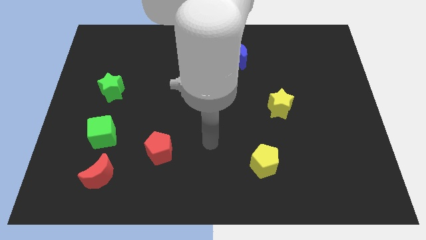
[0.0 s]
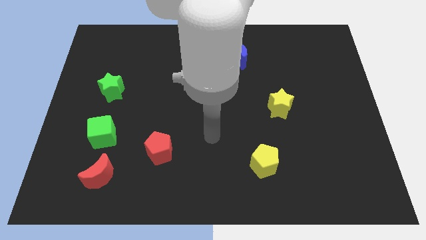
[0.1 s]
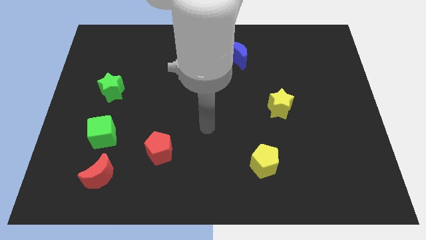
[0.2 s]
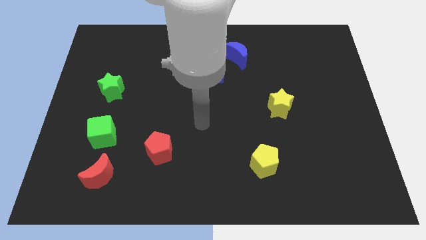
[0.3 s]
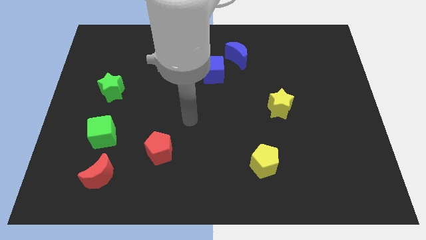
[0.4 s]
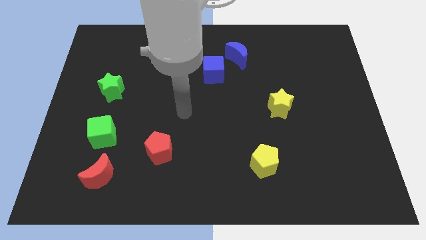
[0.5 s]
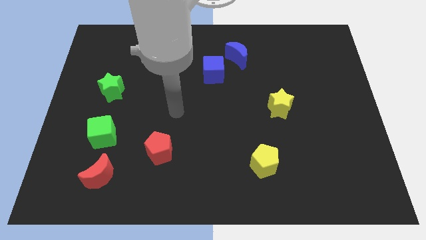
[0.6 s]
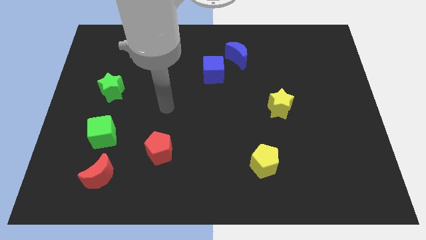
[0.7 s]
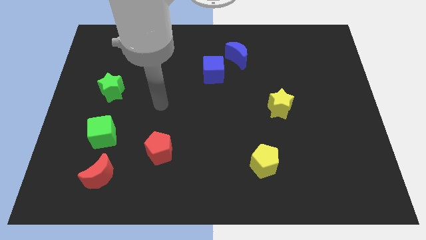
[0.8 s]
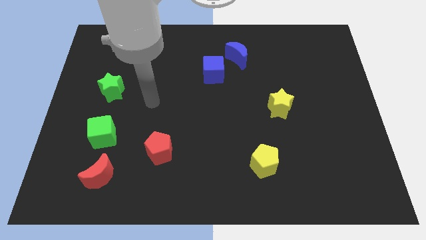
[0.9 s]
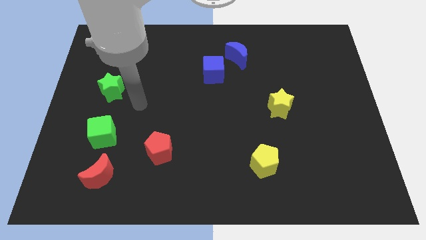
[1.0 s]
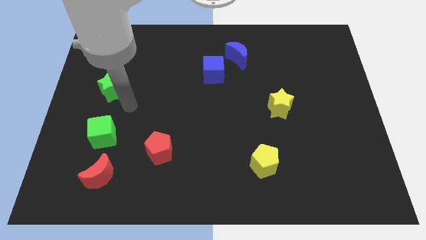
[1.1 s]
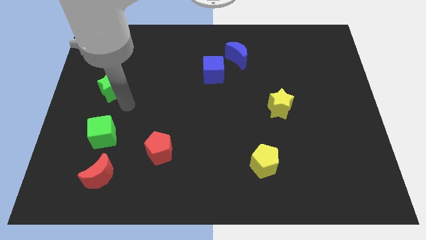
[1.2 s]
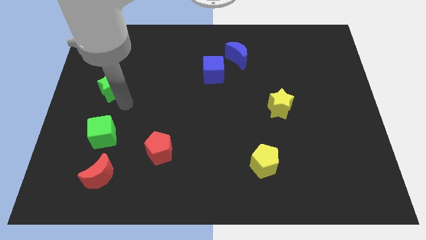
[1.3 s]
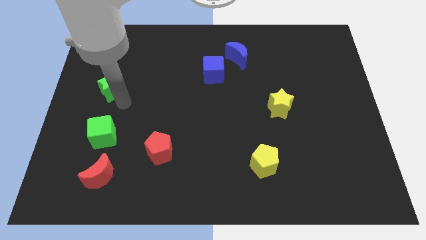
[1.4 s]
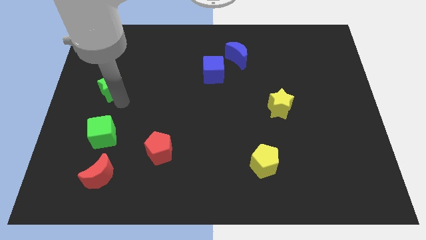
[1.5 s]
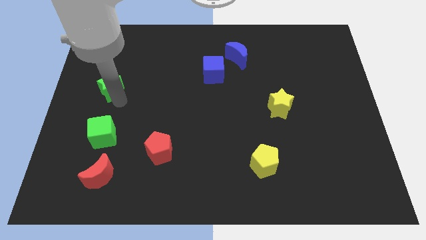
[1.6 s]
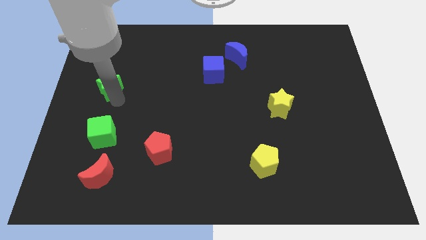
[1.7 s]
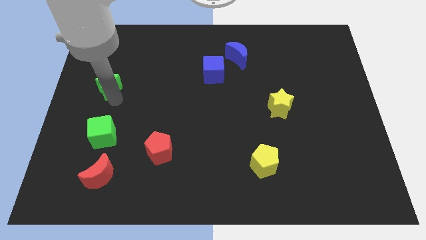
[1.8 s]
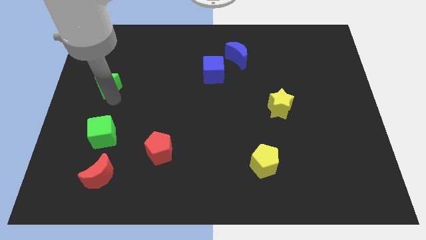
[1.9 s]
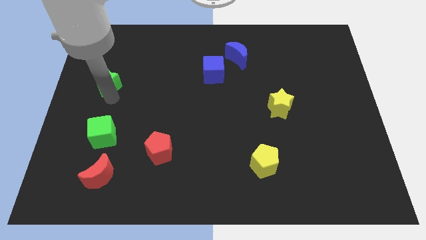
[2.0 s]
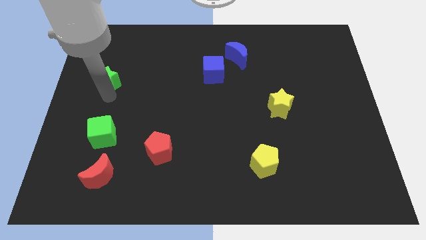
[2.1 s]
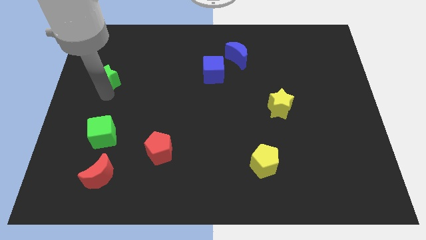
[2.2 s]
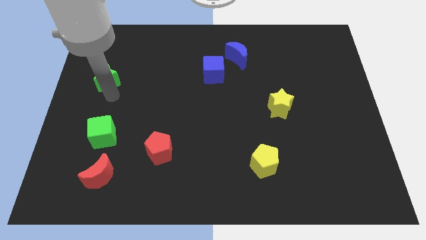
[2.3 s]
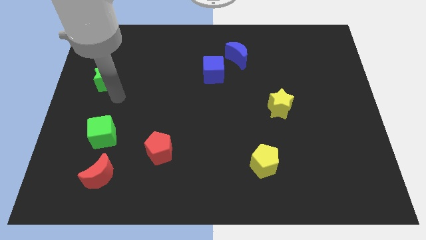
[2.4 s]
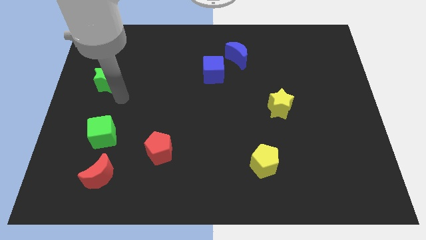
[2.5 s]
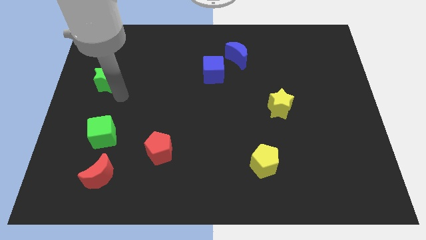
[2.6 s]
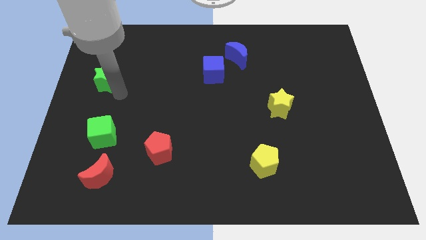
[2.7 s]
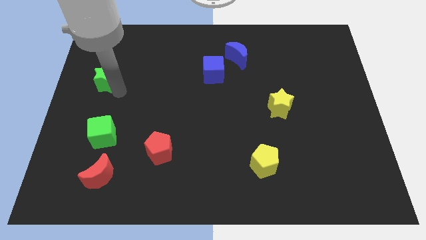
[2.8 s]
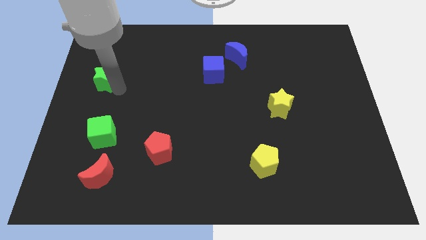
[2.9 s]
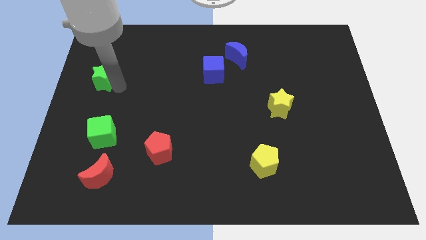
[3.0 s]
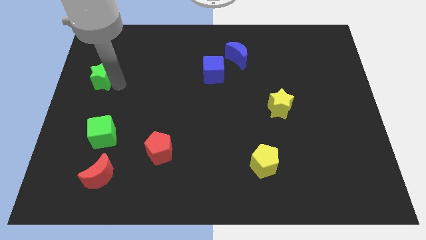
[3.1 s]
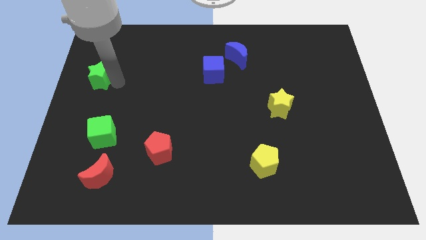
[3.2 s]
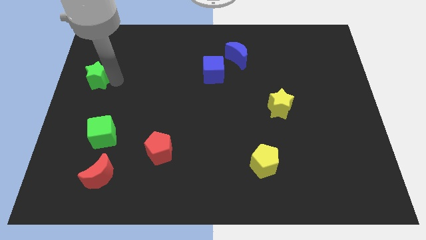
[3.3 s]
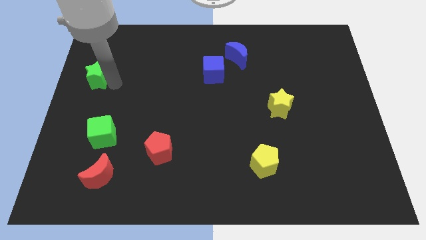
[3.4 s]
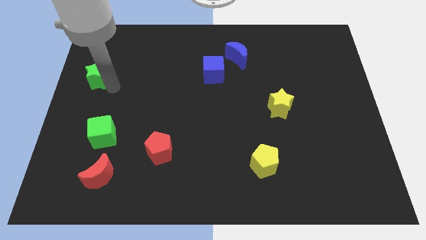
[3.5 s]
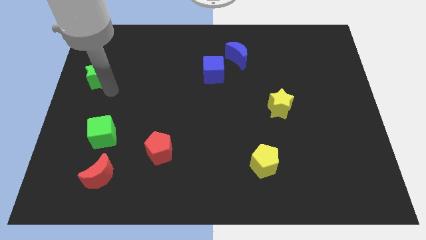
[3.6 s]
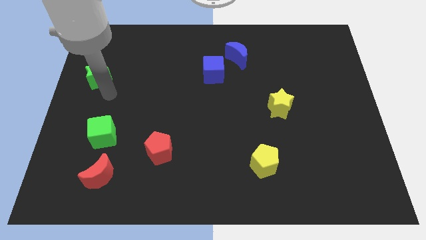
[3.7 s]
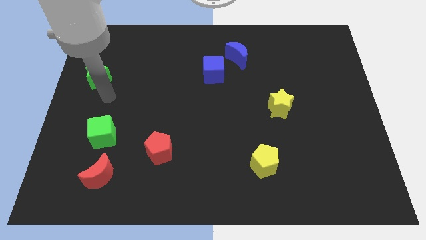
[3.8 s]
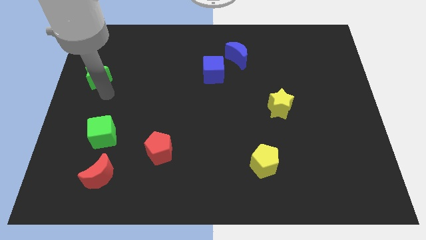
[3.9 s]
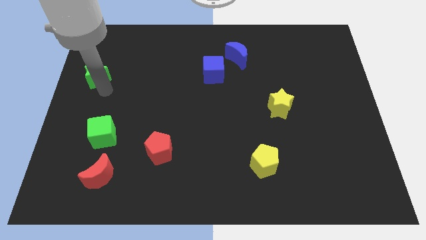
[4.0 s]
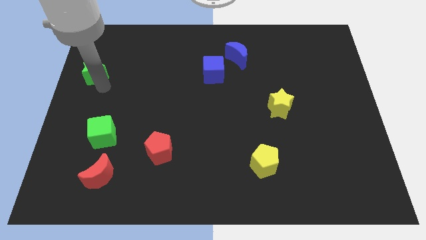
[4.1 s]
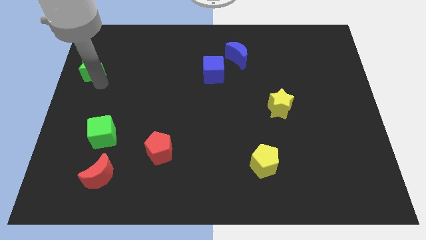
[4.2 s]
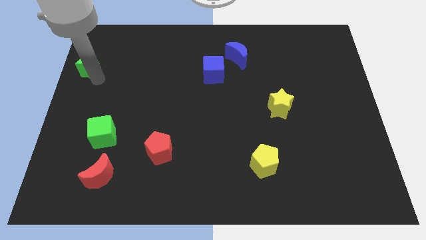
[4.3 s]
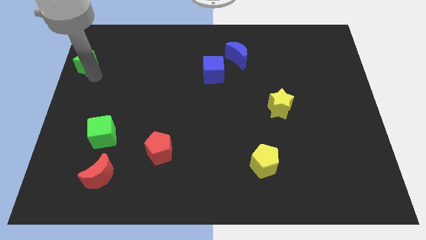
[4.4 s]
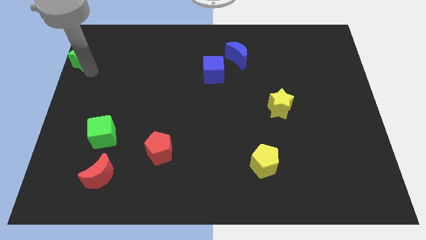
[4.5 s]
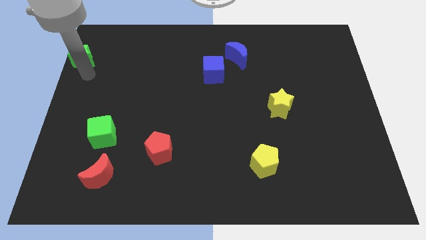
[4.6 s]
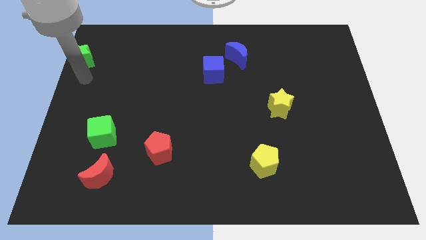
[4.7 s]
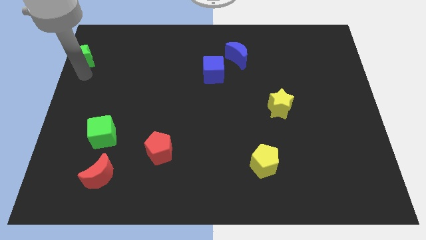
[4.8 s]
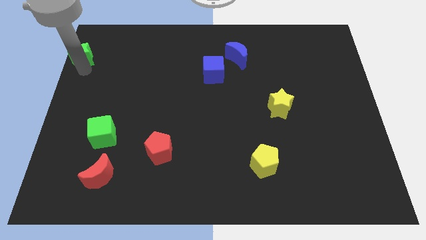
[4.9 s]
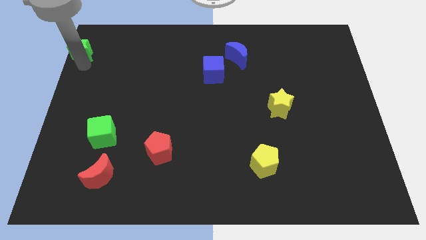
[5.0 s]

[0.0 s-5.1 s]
put the green star to the top left of the board

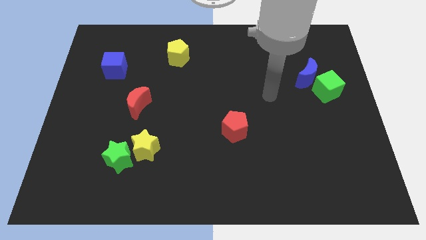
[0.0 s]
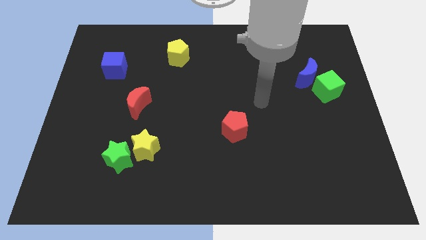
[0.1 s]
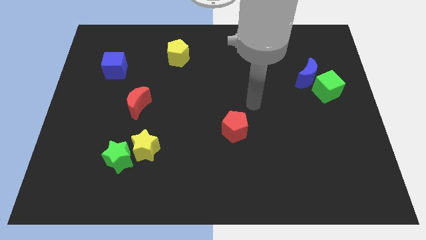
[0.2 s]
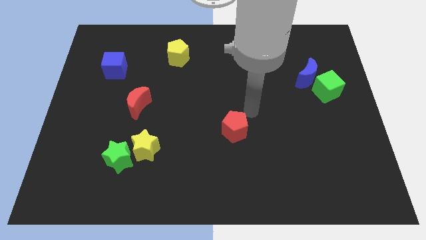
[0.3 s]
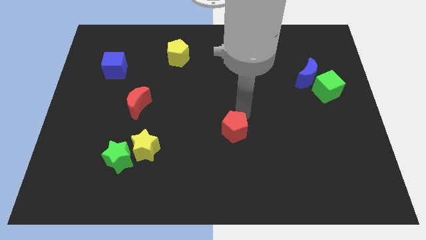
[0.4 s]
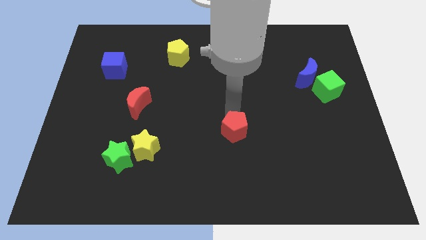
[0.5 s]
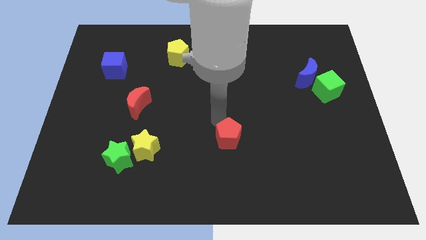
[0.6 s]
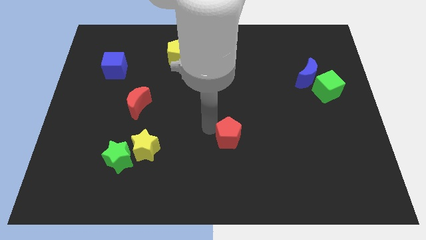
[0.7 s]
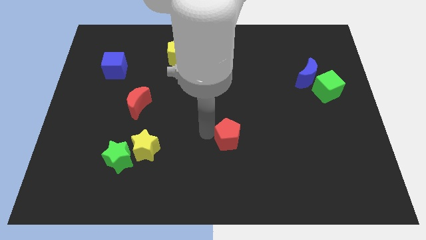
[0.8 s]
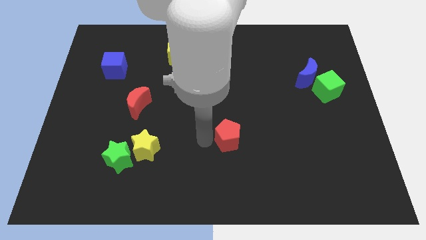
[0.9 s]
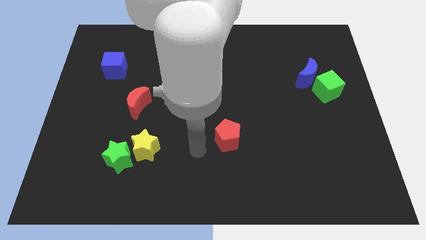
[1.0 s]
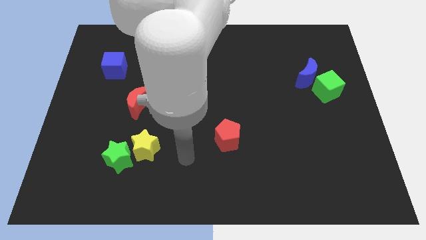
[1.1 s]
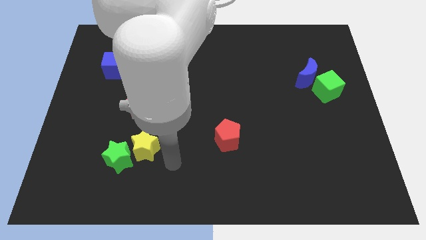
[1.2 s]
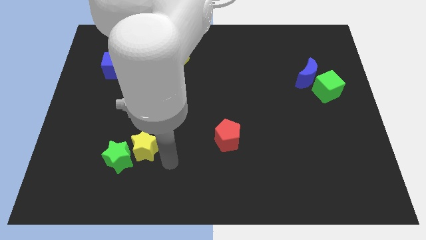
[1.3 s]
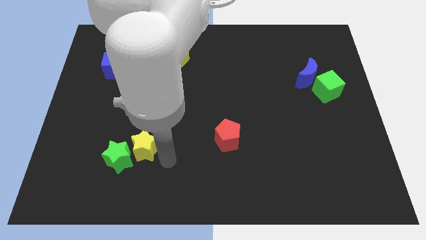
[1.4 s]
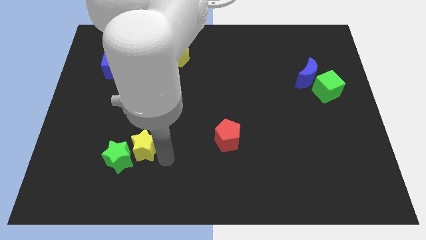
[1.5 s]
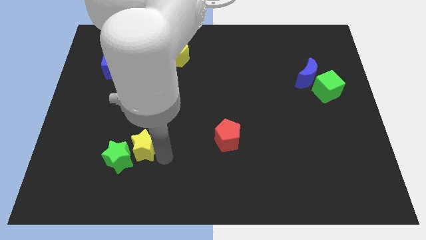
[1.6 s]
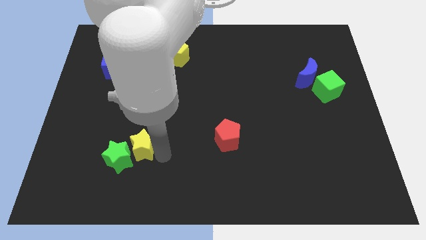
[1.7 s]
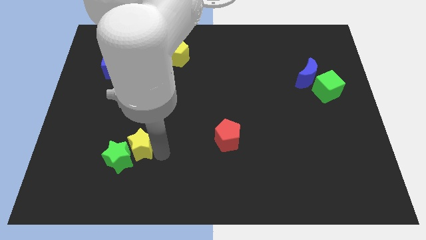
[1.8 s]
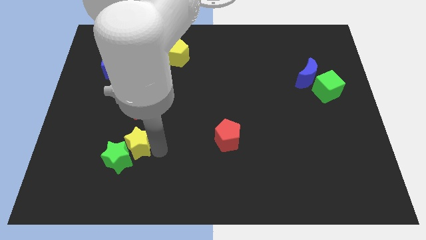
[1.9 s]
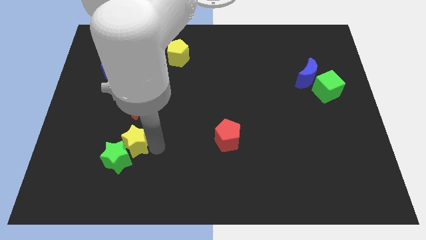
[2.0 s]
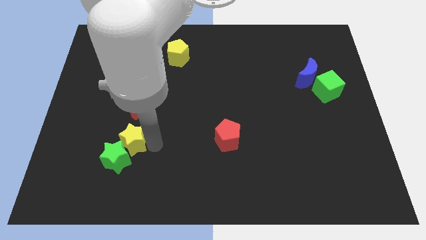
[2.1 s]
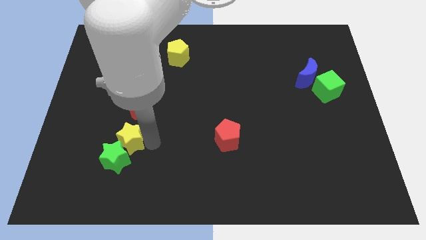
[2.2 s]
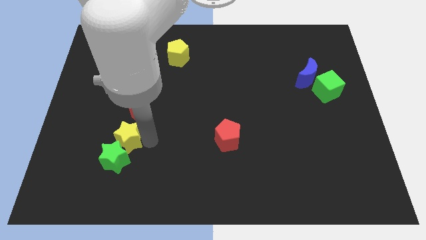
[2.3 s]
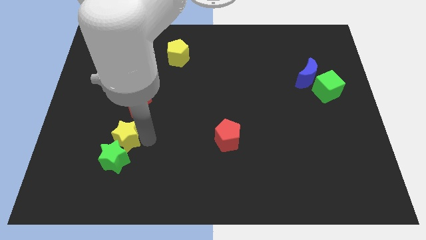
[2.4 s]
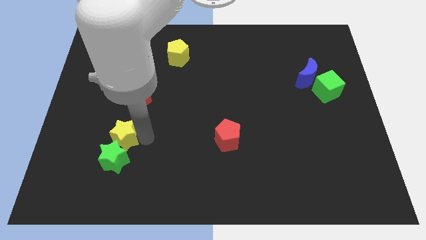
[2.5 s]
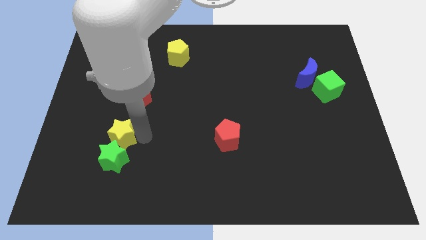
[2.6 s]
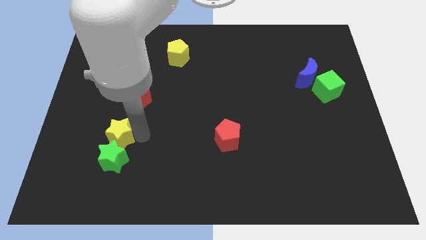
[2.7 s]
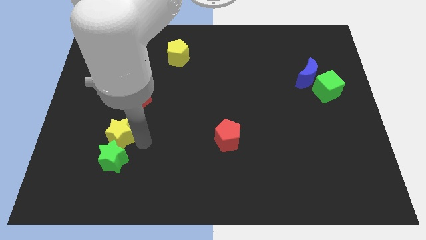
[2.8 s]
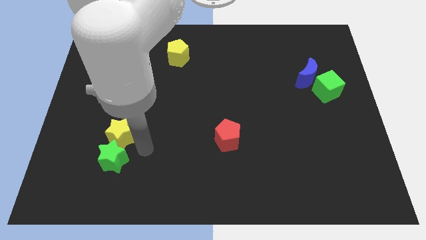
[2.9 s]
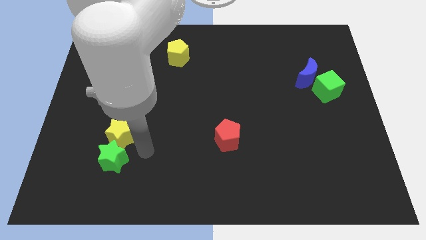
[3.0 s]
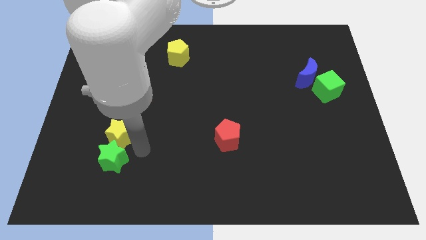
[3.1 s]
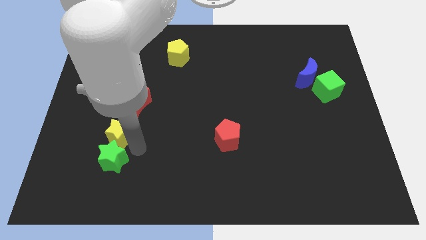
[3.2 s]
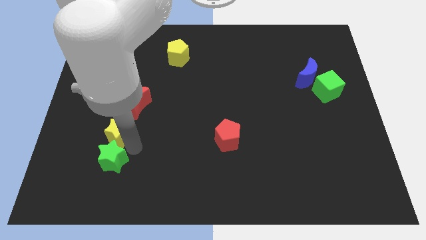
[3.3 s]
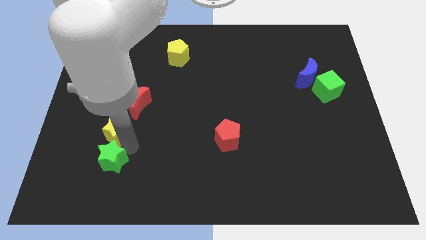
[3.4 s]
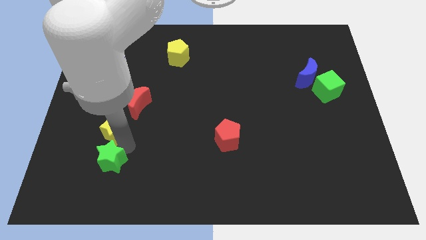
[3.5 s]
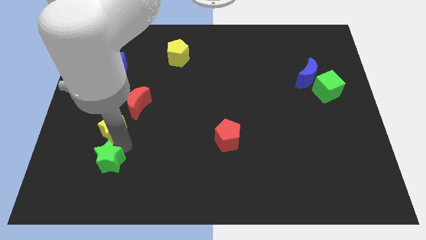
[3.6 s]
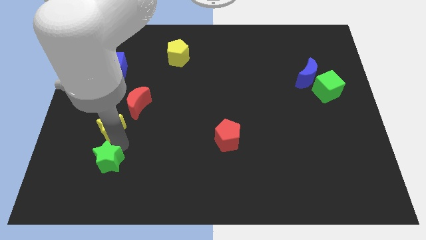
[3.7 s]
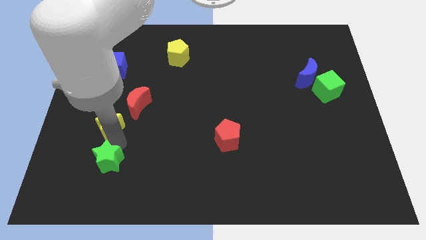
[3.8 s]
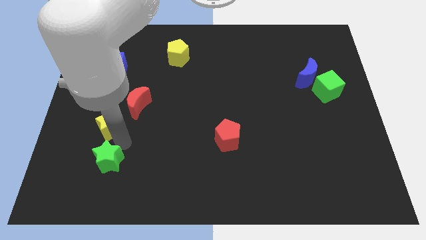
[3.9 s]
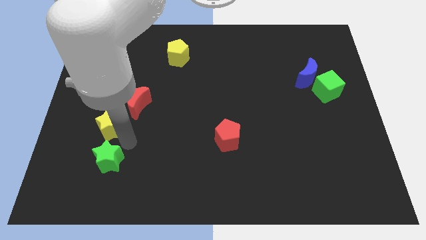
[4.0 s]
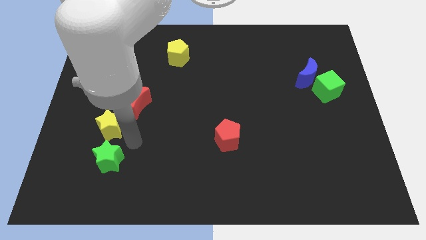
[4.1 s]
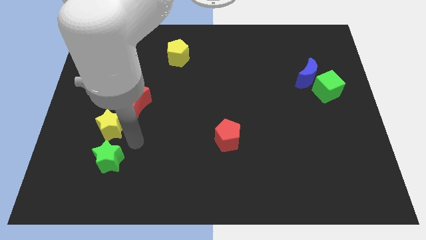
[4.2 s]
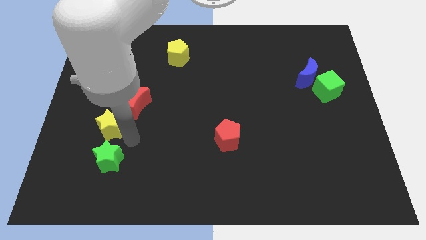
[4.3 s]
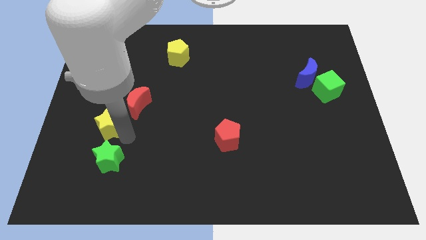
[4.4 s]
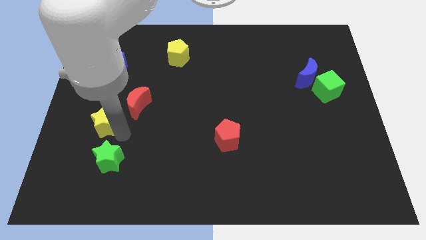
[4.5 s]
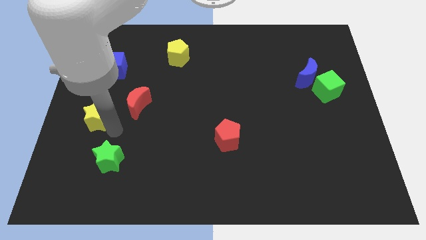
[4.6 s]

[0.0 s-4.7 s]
put the yellow star to the center left
